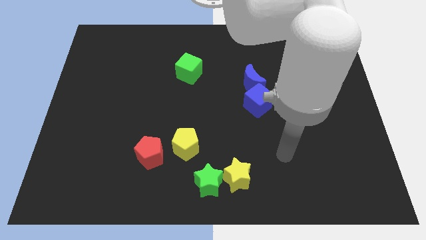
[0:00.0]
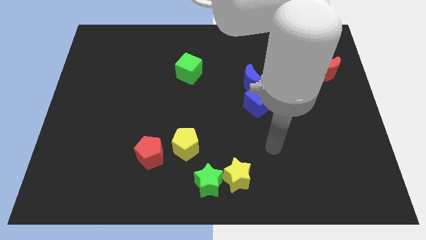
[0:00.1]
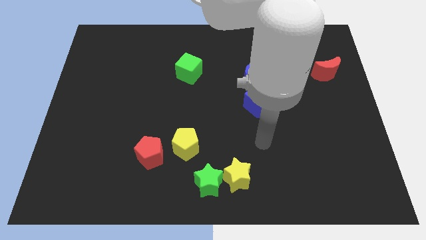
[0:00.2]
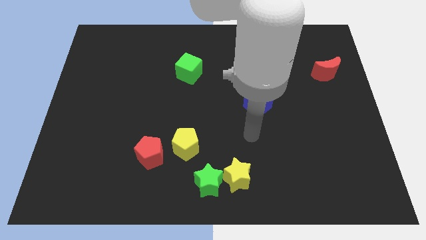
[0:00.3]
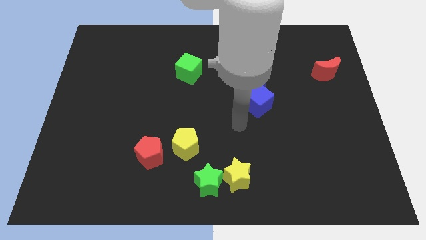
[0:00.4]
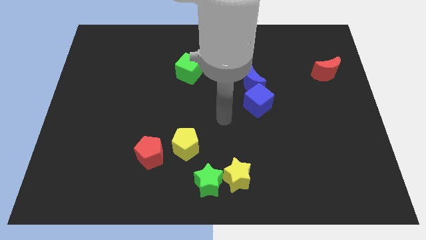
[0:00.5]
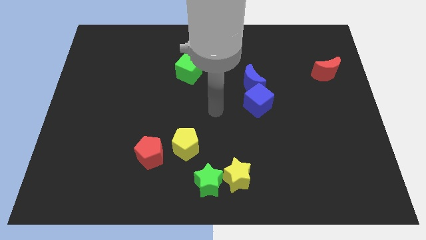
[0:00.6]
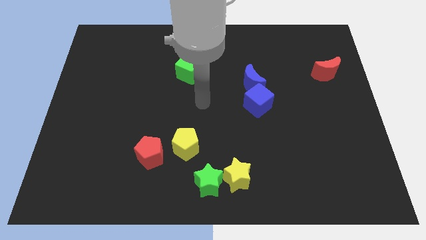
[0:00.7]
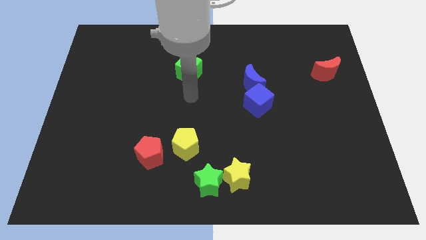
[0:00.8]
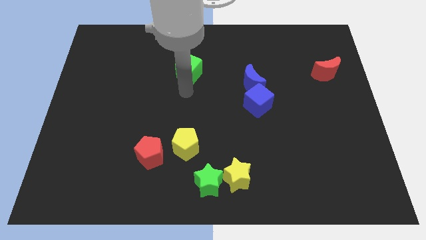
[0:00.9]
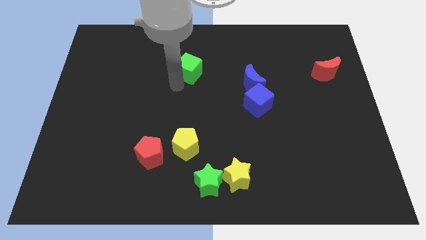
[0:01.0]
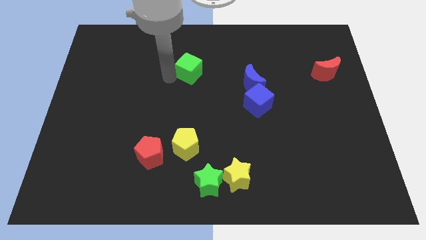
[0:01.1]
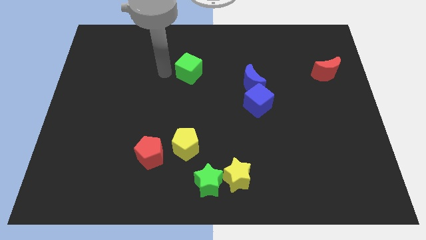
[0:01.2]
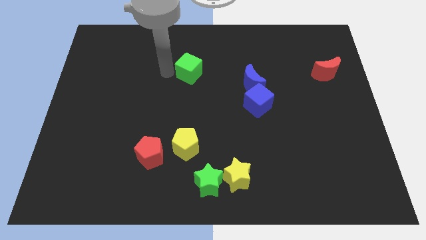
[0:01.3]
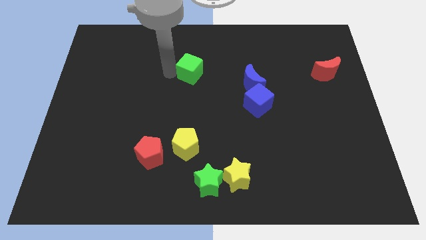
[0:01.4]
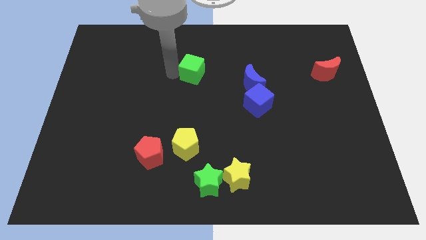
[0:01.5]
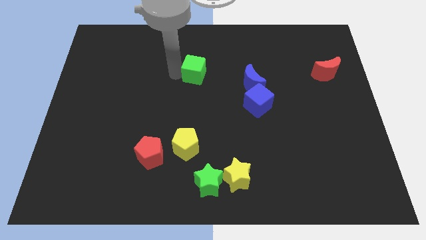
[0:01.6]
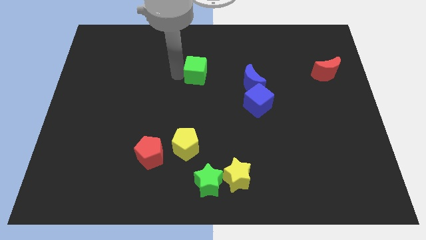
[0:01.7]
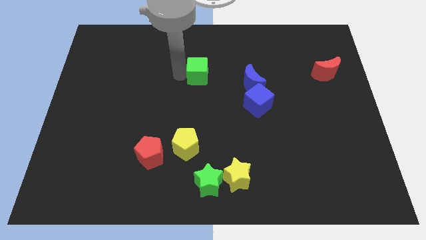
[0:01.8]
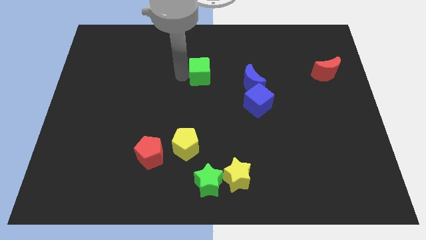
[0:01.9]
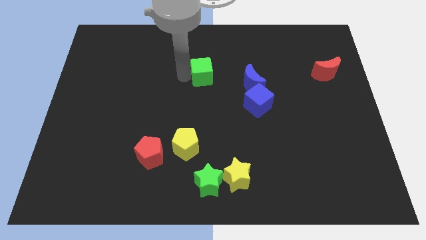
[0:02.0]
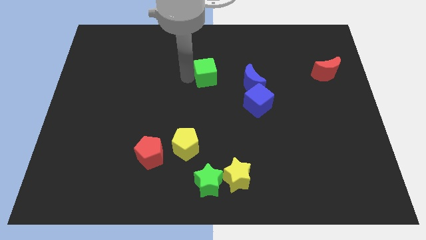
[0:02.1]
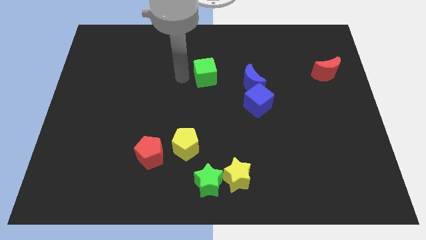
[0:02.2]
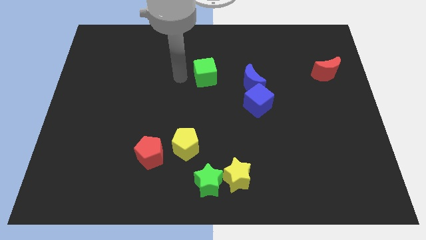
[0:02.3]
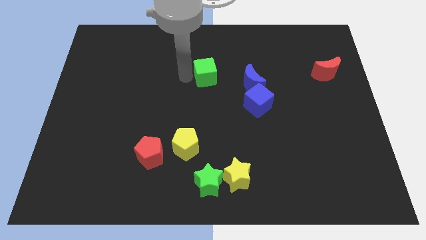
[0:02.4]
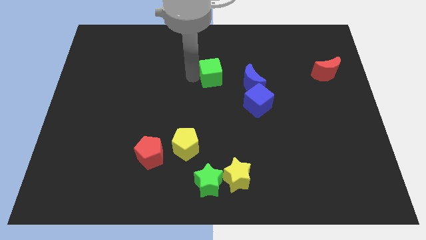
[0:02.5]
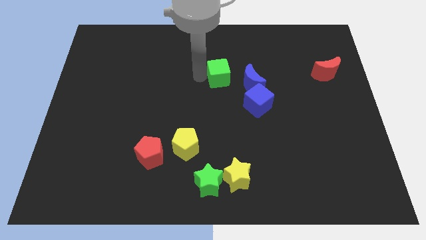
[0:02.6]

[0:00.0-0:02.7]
move the green cube a little bit to the right

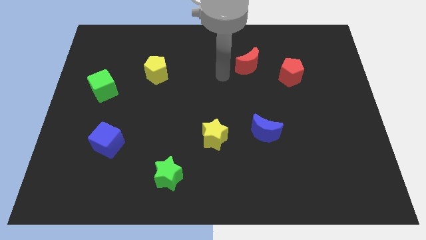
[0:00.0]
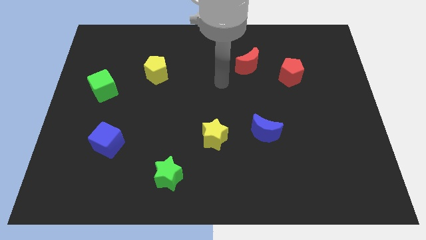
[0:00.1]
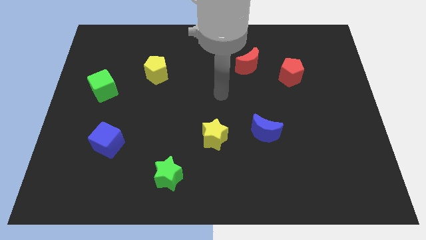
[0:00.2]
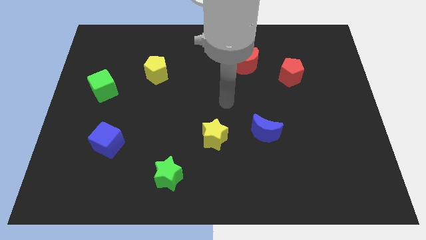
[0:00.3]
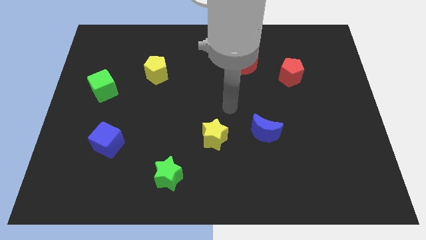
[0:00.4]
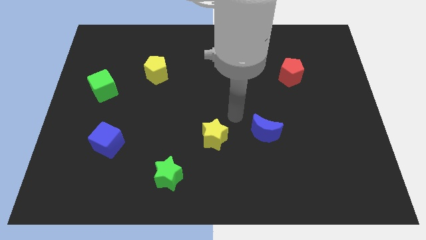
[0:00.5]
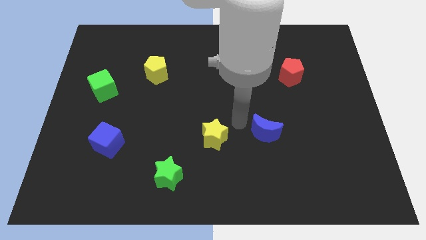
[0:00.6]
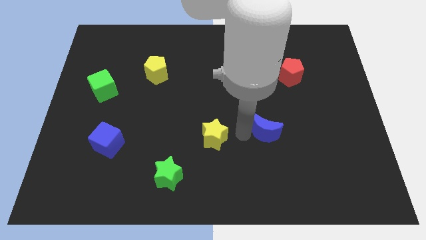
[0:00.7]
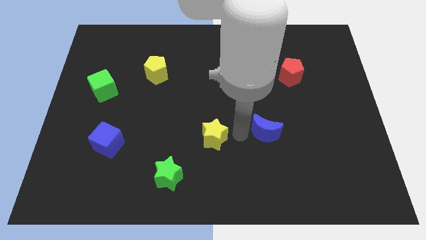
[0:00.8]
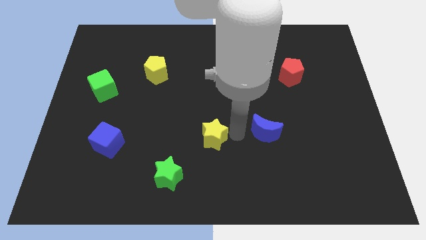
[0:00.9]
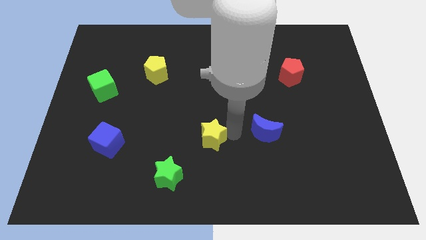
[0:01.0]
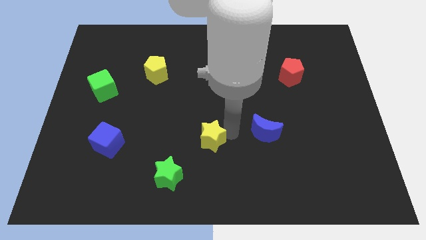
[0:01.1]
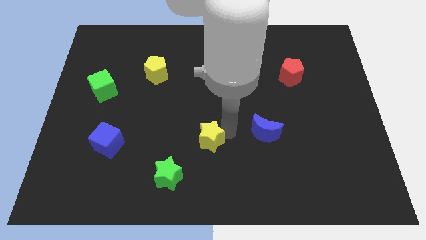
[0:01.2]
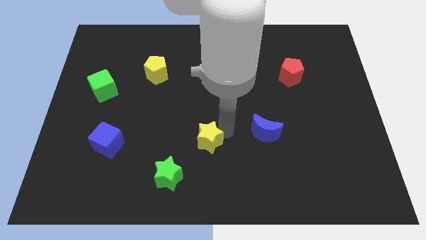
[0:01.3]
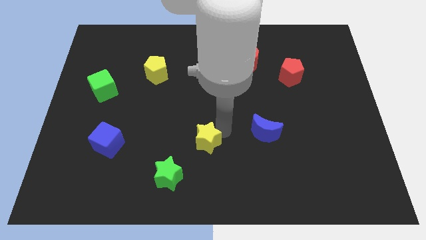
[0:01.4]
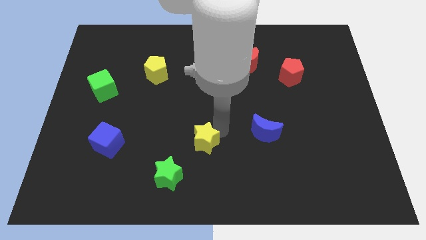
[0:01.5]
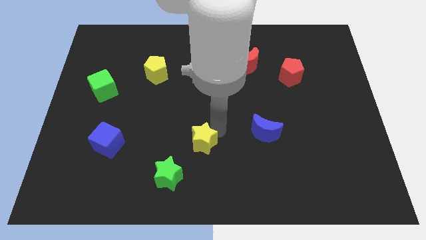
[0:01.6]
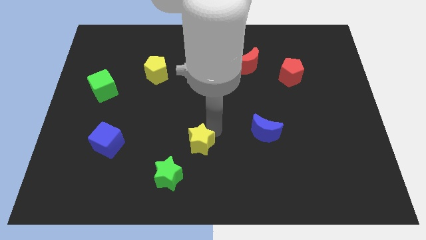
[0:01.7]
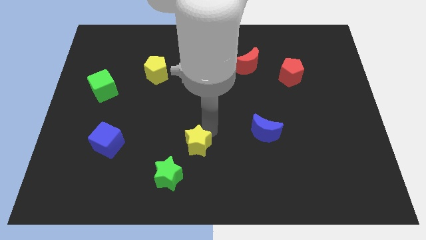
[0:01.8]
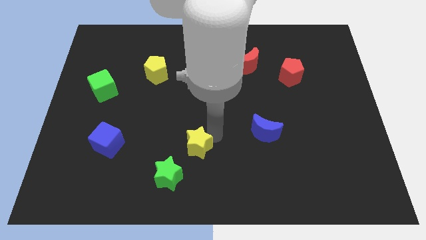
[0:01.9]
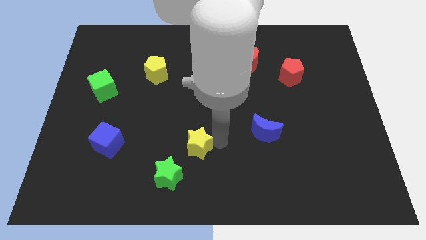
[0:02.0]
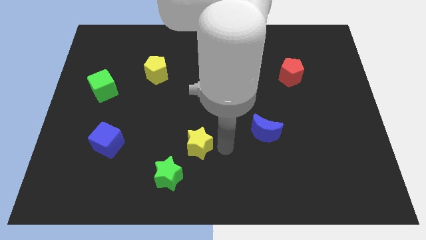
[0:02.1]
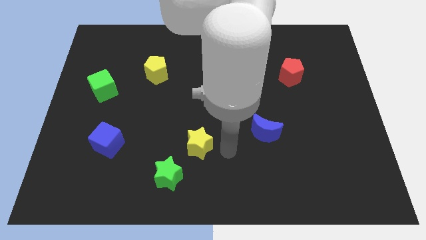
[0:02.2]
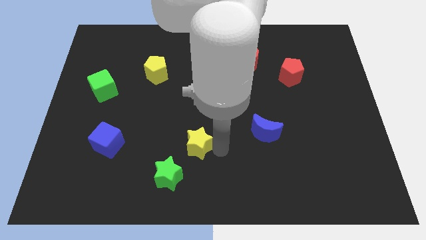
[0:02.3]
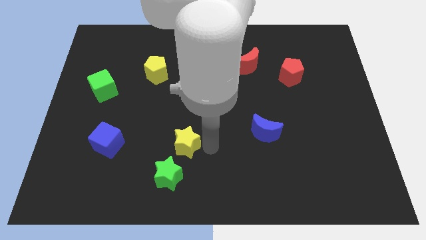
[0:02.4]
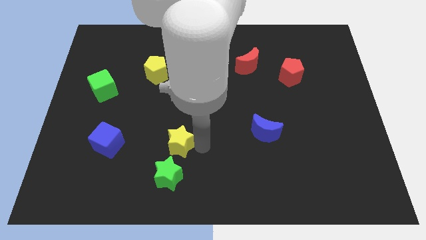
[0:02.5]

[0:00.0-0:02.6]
move the yellow star a little left

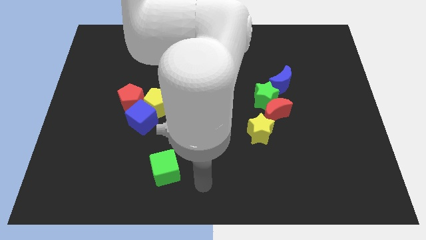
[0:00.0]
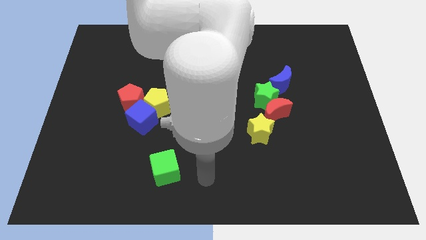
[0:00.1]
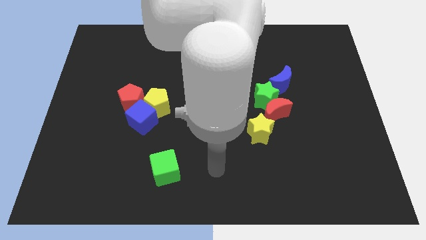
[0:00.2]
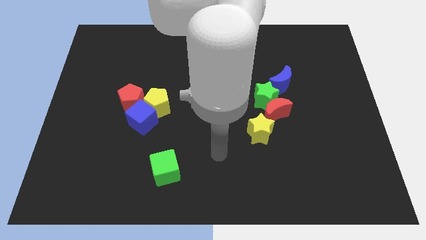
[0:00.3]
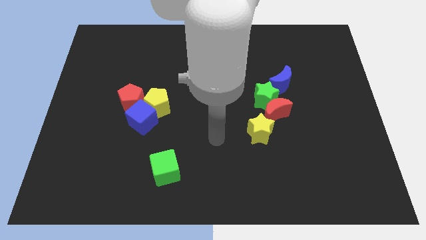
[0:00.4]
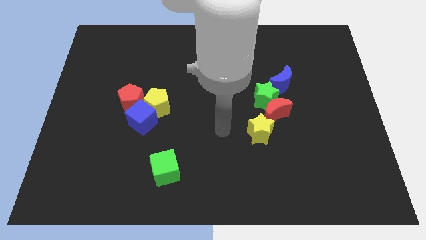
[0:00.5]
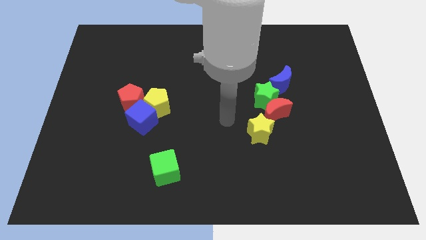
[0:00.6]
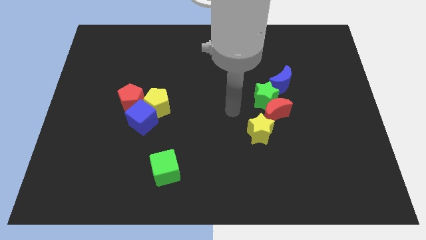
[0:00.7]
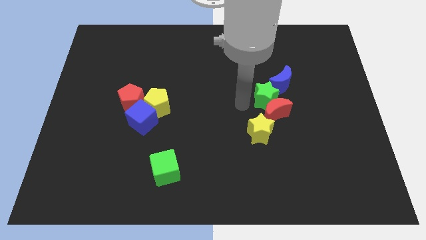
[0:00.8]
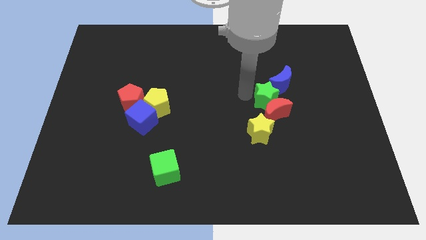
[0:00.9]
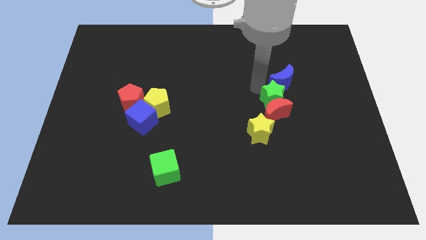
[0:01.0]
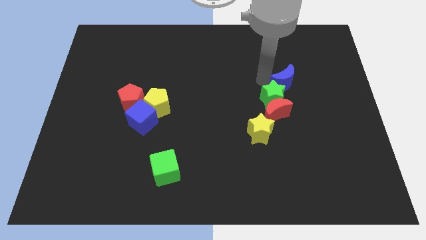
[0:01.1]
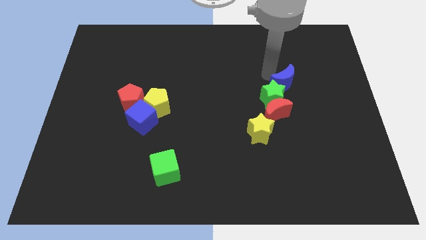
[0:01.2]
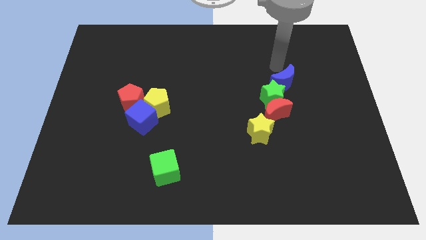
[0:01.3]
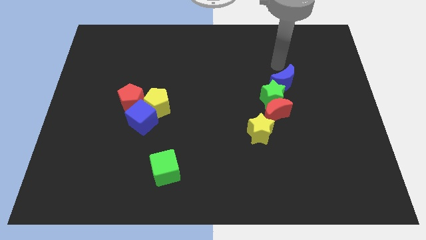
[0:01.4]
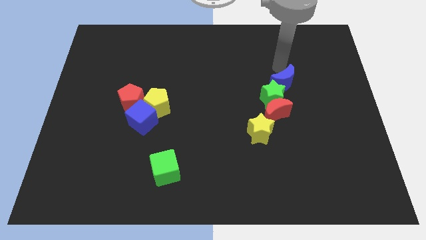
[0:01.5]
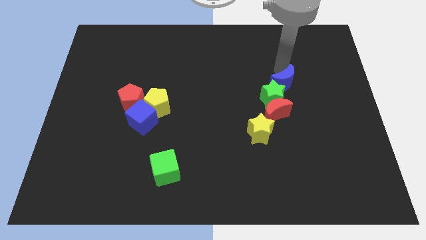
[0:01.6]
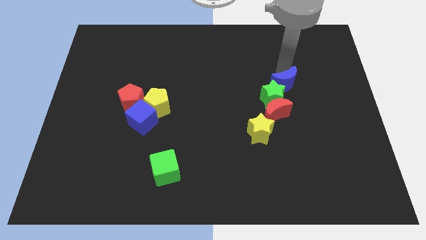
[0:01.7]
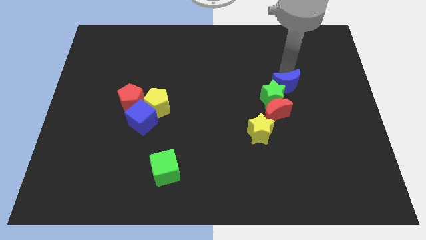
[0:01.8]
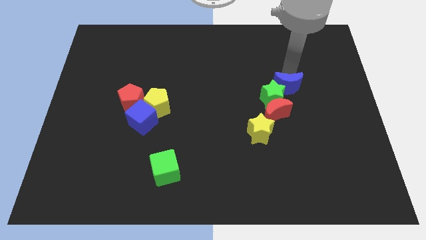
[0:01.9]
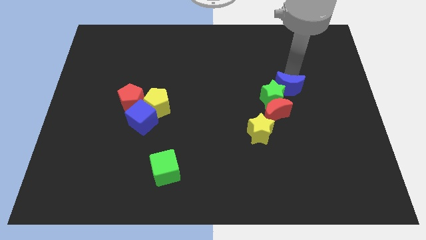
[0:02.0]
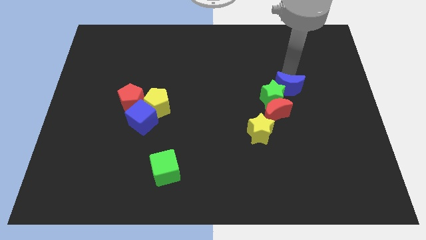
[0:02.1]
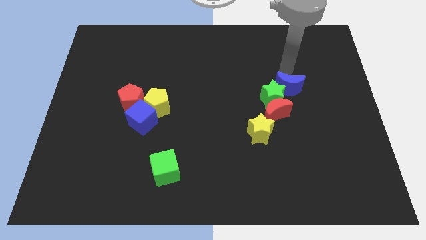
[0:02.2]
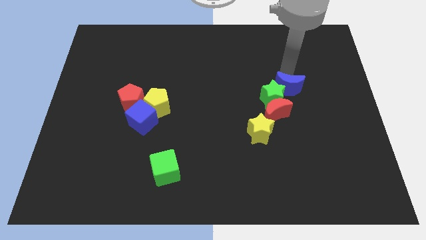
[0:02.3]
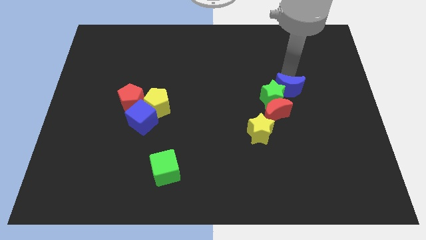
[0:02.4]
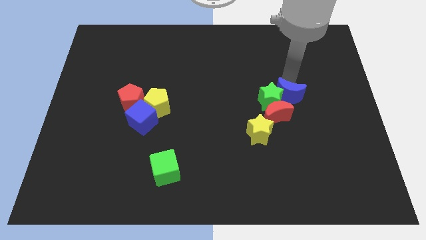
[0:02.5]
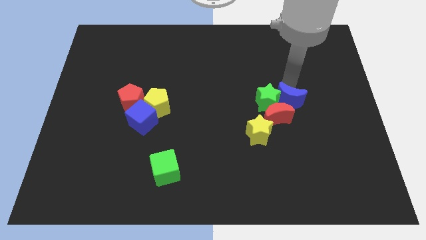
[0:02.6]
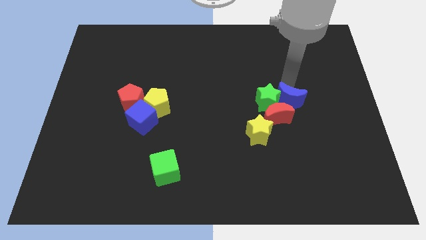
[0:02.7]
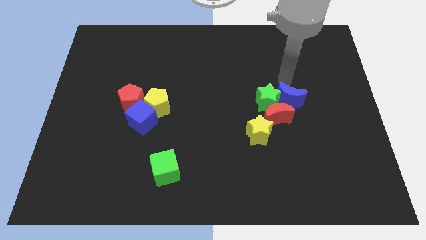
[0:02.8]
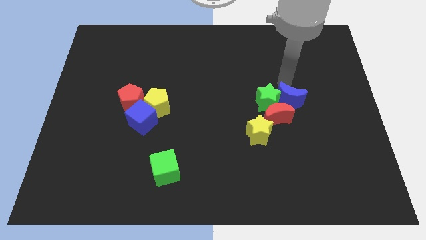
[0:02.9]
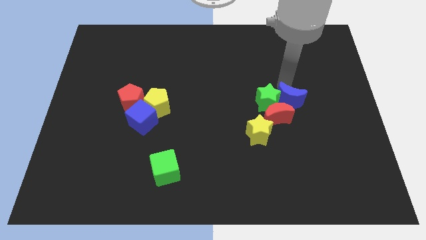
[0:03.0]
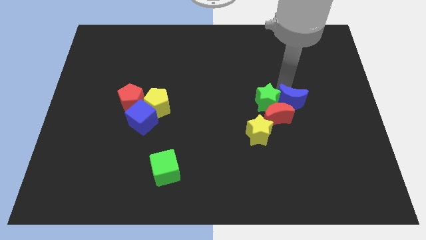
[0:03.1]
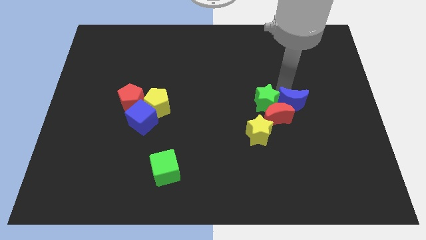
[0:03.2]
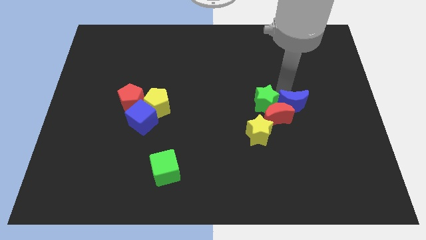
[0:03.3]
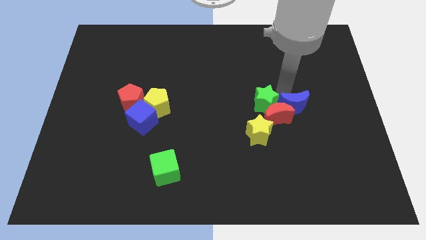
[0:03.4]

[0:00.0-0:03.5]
slide the blue moon downwards somewhat
